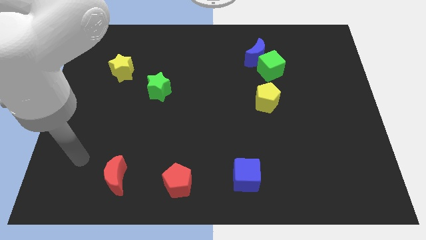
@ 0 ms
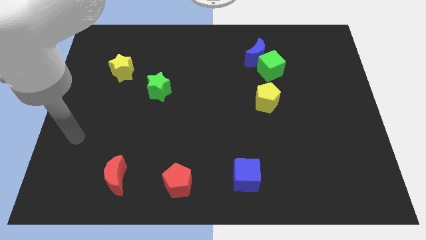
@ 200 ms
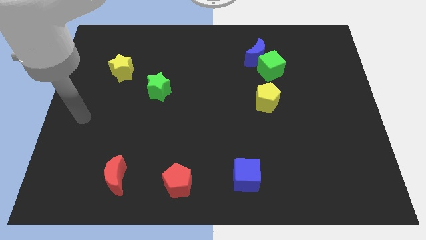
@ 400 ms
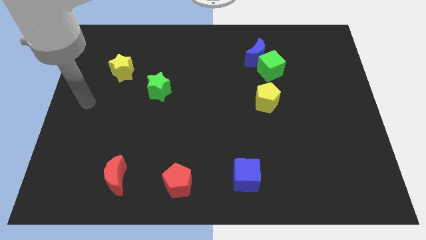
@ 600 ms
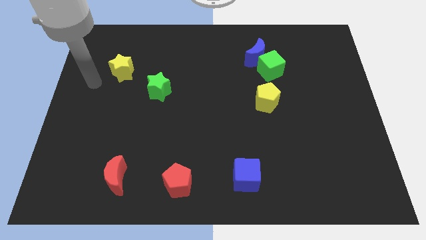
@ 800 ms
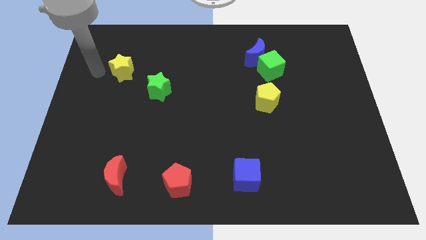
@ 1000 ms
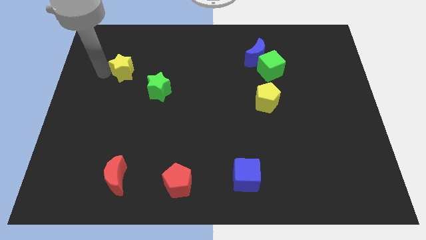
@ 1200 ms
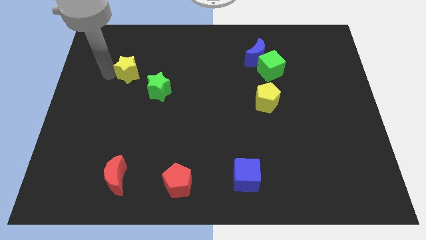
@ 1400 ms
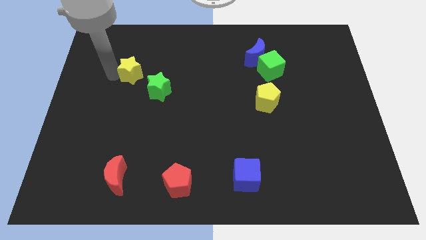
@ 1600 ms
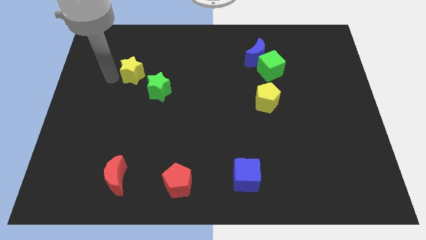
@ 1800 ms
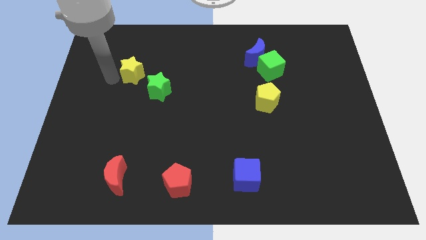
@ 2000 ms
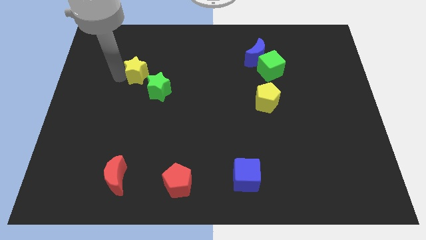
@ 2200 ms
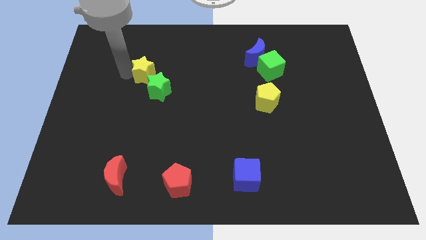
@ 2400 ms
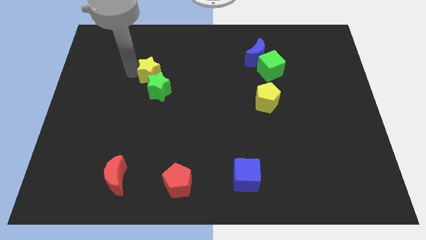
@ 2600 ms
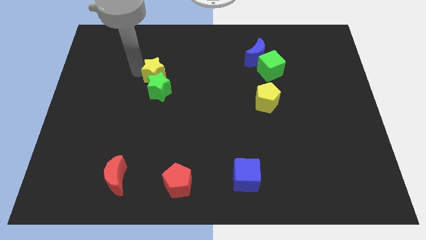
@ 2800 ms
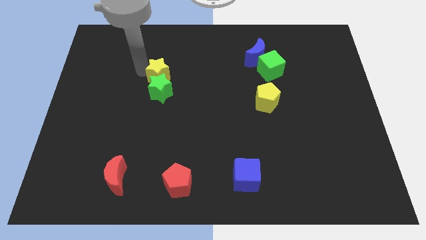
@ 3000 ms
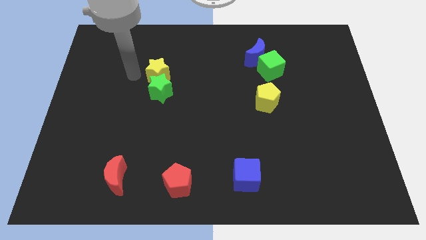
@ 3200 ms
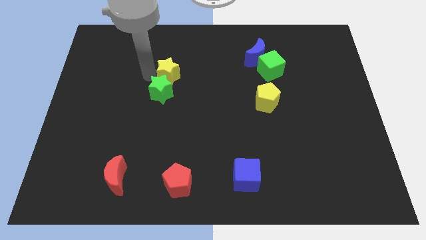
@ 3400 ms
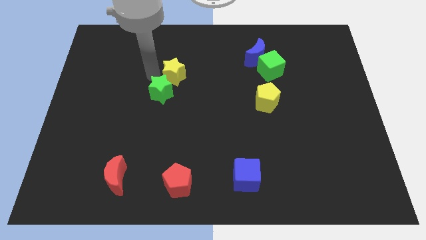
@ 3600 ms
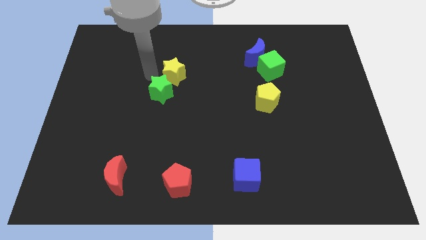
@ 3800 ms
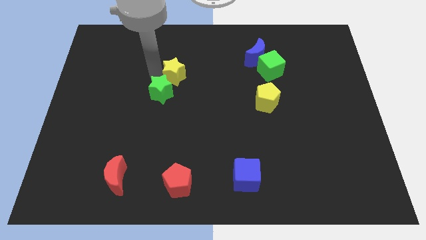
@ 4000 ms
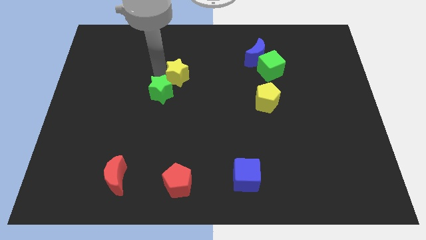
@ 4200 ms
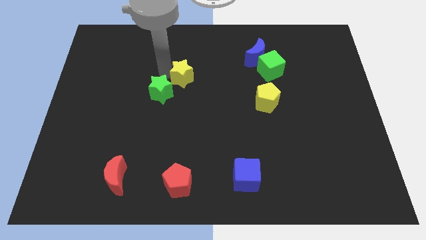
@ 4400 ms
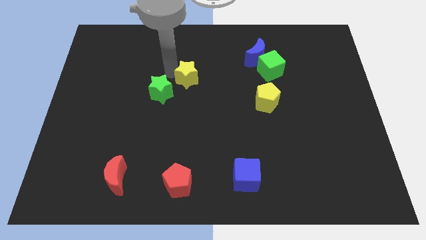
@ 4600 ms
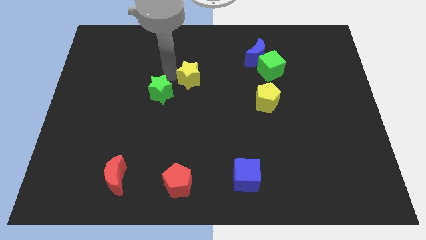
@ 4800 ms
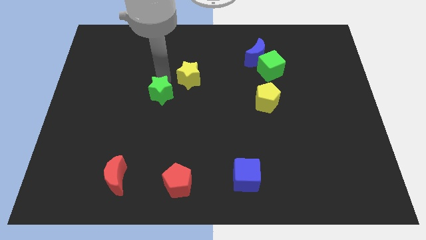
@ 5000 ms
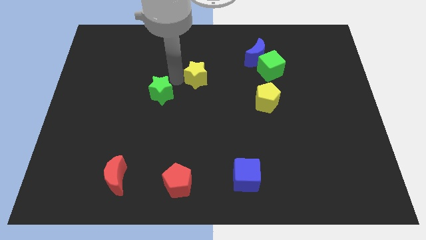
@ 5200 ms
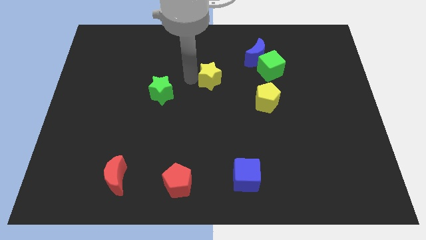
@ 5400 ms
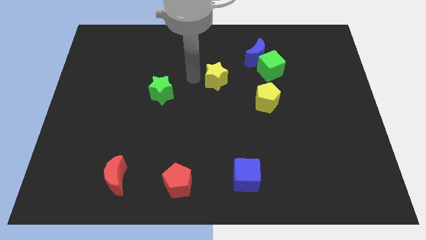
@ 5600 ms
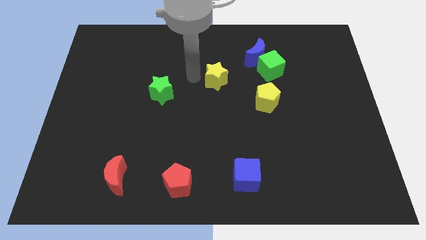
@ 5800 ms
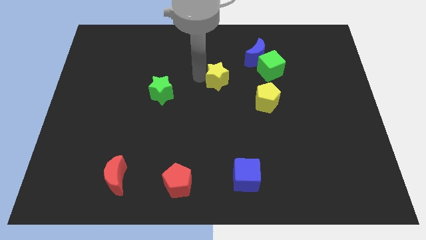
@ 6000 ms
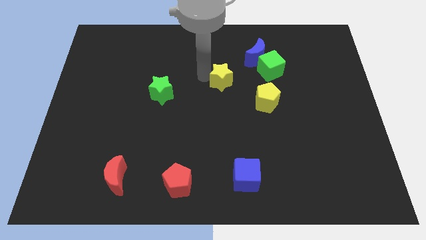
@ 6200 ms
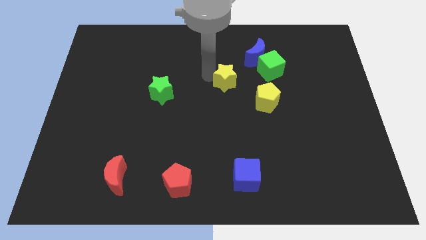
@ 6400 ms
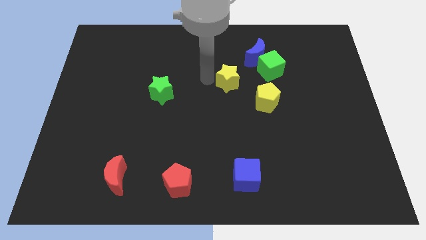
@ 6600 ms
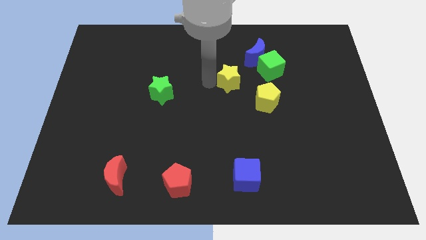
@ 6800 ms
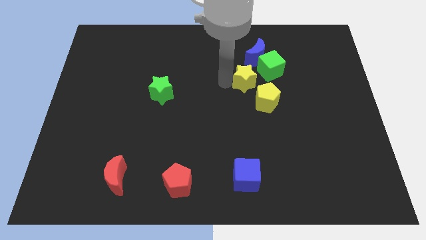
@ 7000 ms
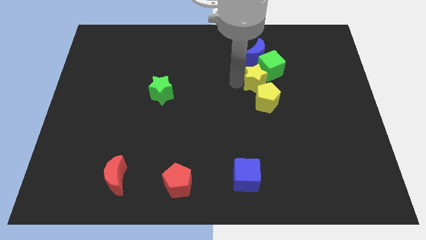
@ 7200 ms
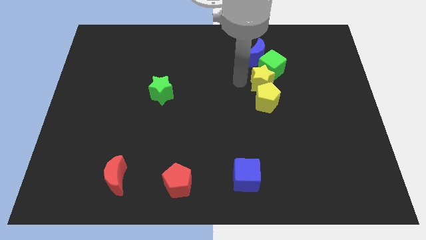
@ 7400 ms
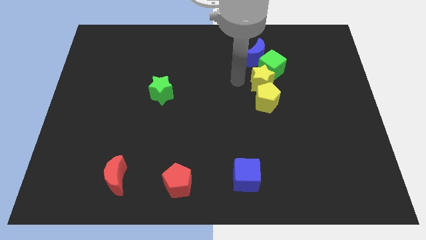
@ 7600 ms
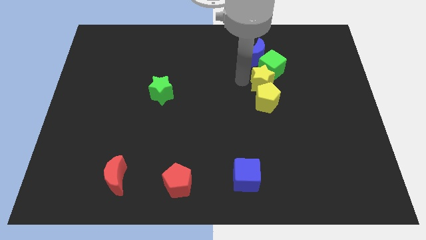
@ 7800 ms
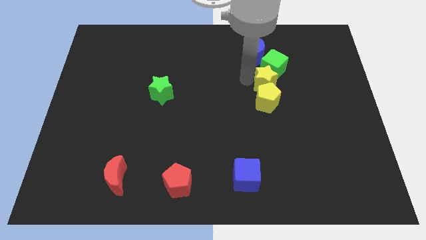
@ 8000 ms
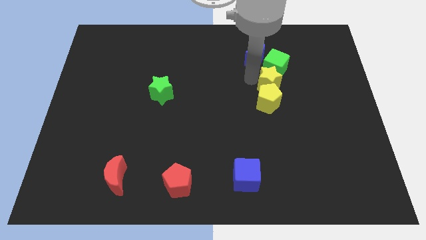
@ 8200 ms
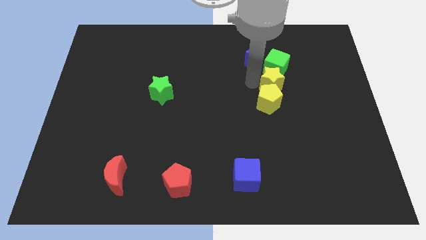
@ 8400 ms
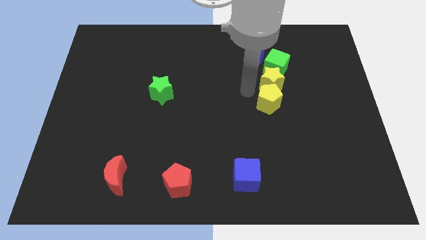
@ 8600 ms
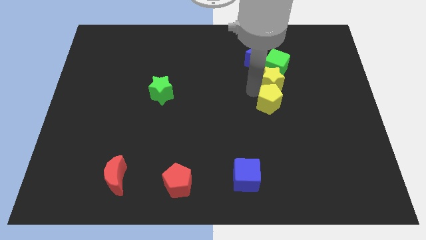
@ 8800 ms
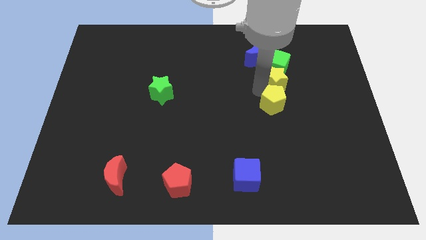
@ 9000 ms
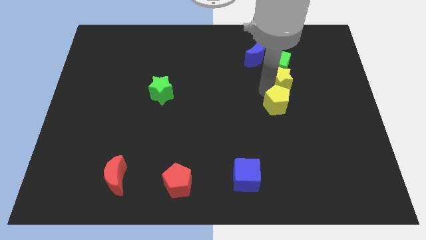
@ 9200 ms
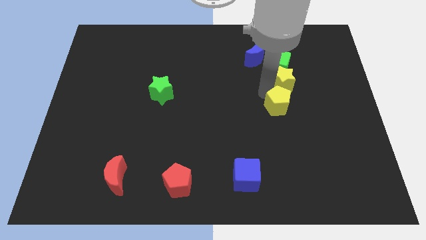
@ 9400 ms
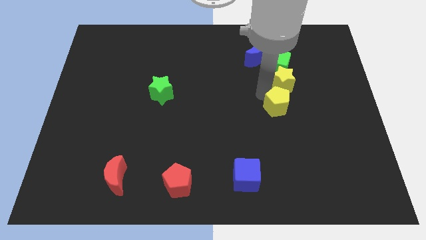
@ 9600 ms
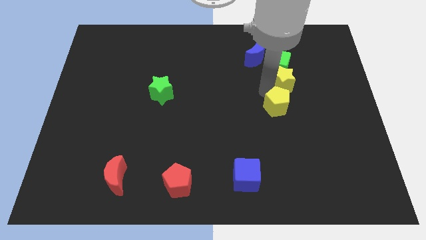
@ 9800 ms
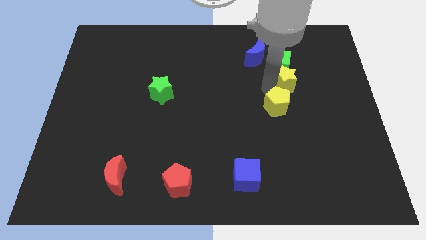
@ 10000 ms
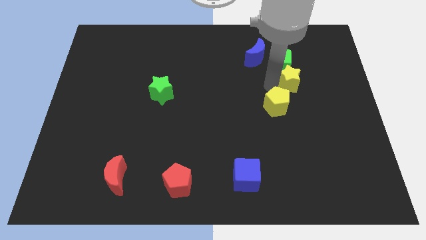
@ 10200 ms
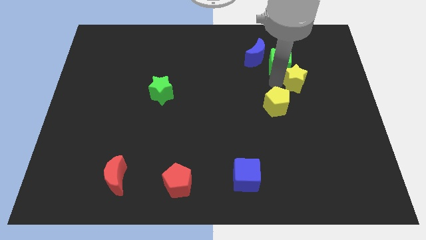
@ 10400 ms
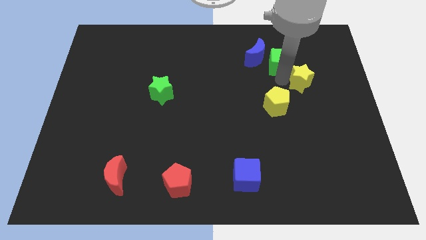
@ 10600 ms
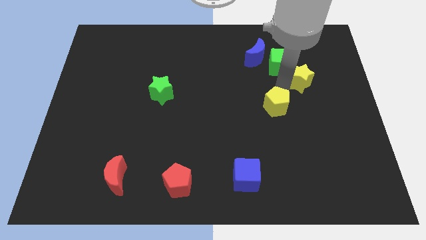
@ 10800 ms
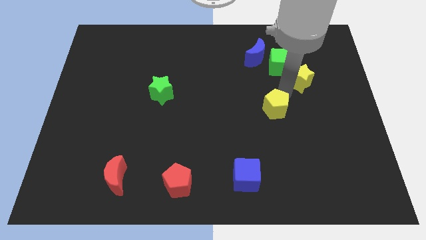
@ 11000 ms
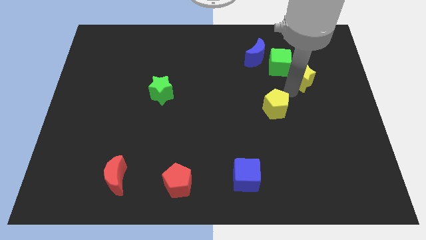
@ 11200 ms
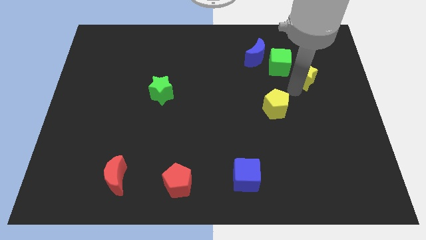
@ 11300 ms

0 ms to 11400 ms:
push the yellow star just right of the green cube

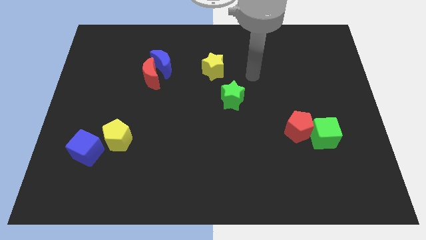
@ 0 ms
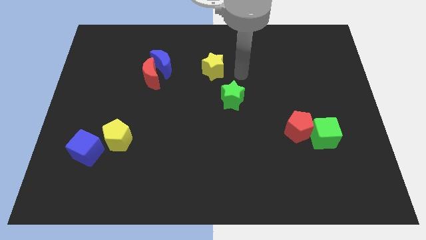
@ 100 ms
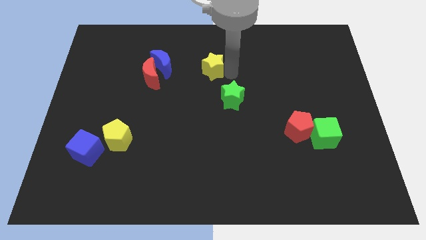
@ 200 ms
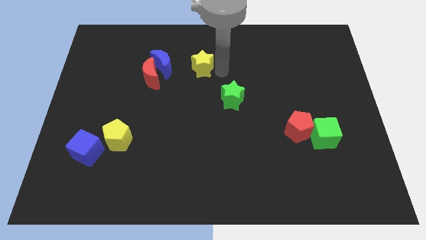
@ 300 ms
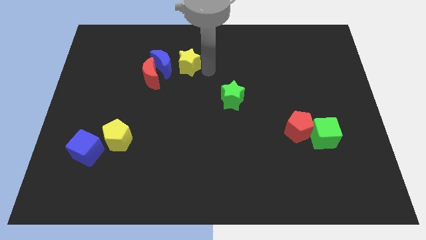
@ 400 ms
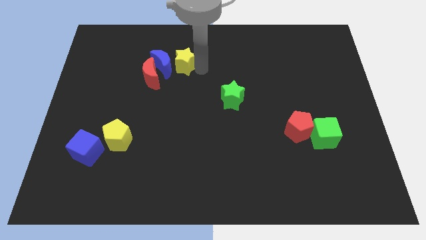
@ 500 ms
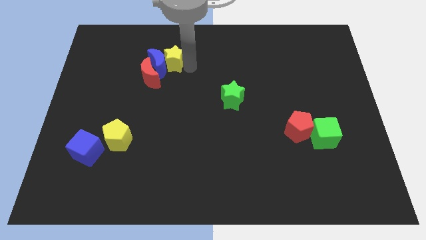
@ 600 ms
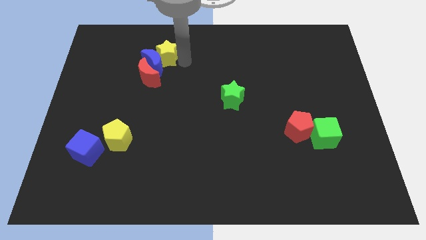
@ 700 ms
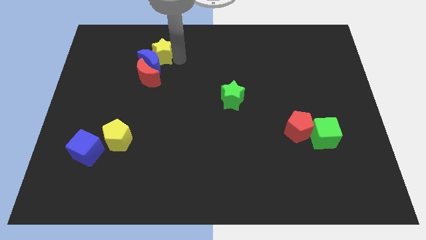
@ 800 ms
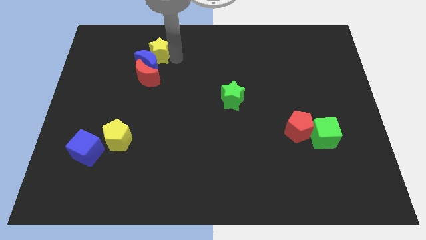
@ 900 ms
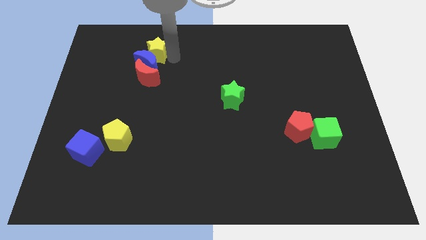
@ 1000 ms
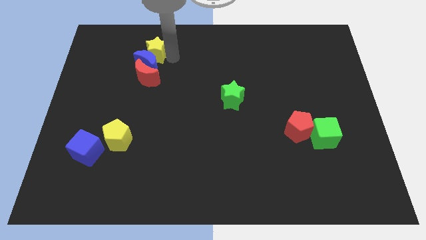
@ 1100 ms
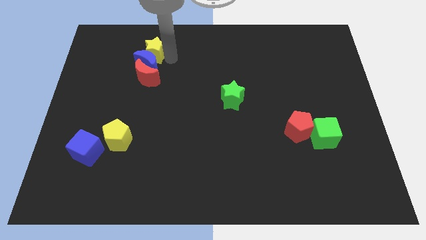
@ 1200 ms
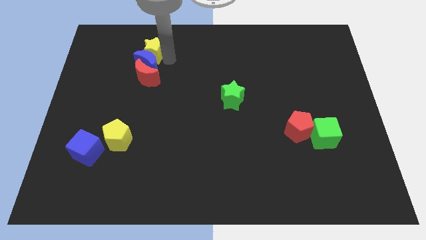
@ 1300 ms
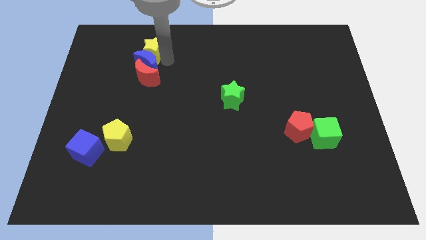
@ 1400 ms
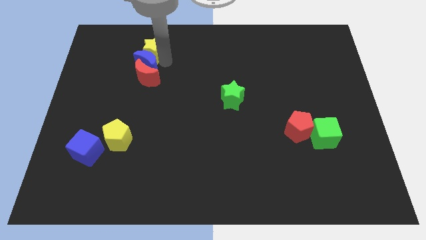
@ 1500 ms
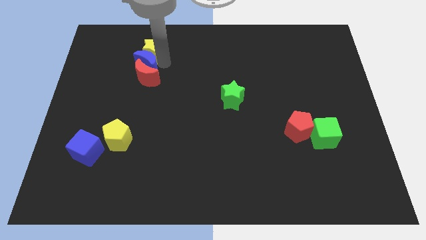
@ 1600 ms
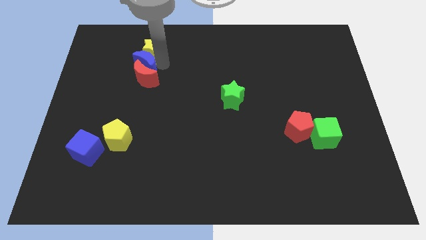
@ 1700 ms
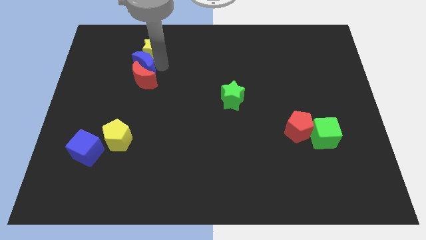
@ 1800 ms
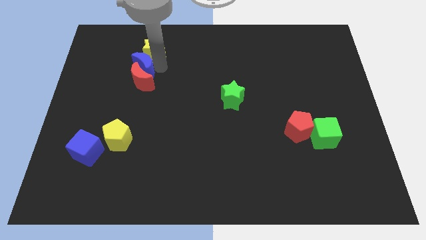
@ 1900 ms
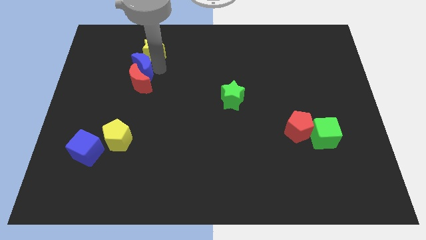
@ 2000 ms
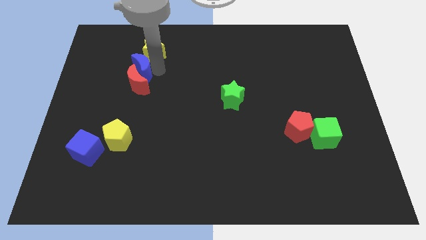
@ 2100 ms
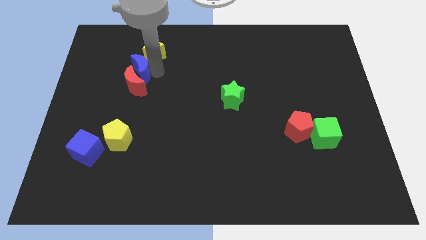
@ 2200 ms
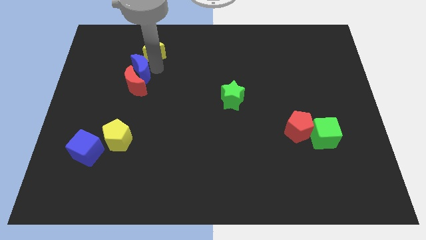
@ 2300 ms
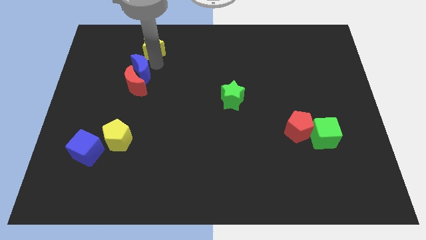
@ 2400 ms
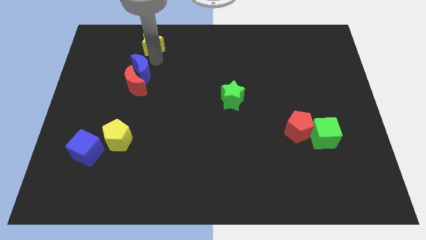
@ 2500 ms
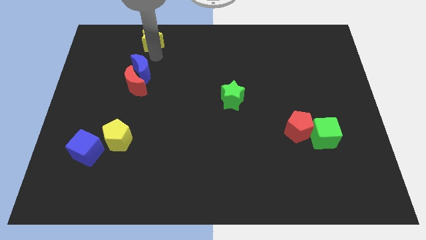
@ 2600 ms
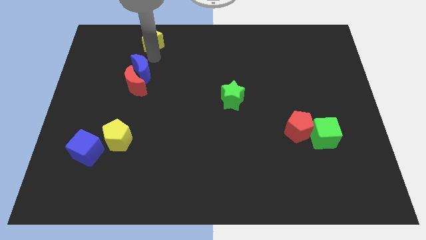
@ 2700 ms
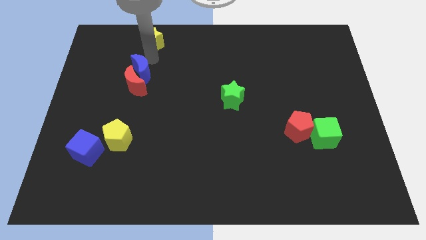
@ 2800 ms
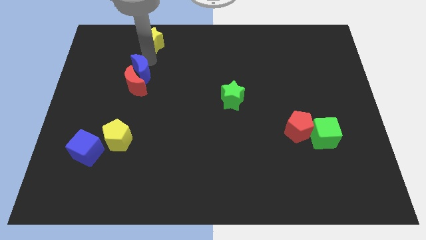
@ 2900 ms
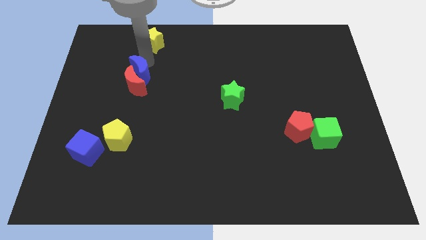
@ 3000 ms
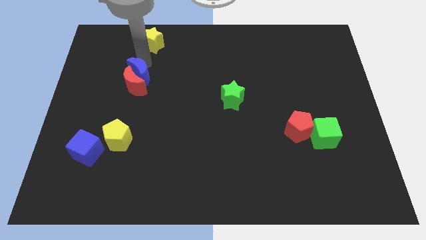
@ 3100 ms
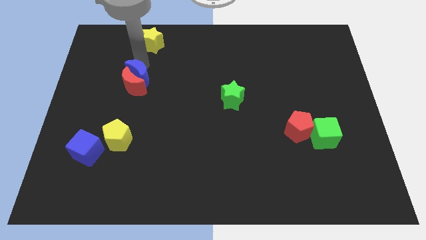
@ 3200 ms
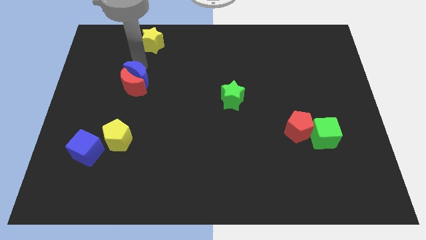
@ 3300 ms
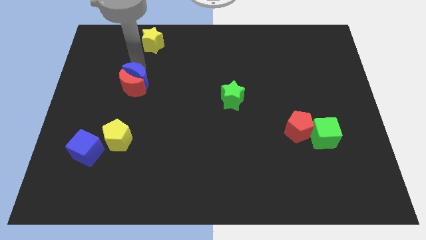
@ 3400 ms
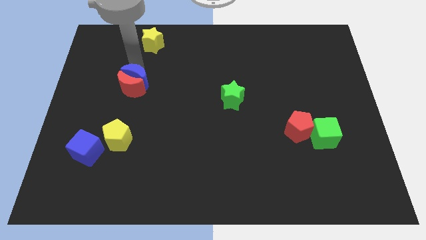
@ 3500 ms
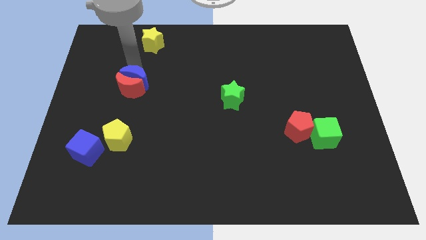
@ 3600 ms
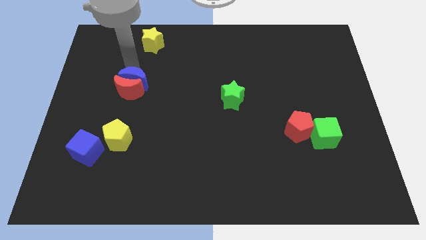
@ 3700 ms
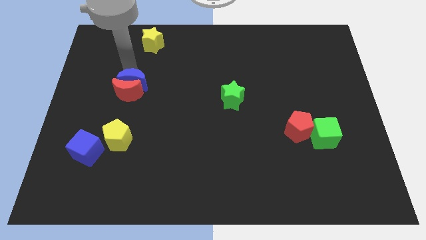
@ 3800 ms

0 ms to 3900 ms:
push the blue moon to the top of the yellow pentagon
